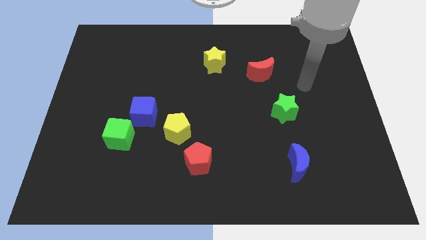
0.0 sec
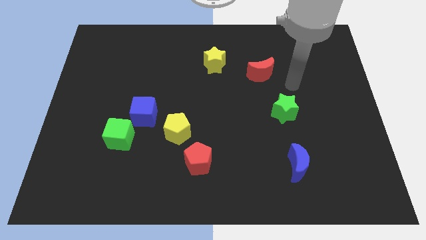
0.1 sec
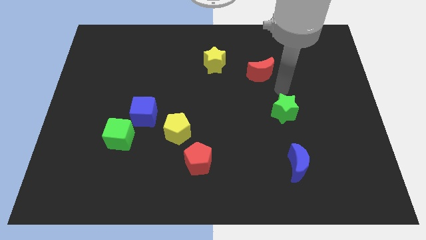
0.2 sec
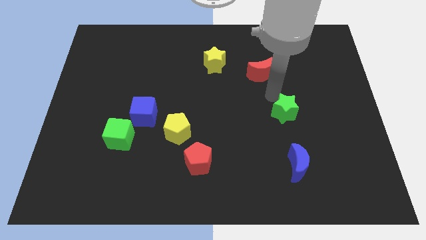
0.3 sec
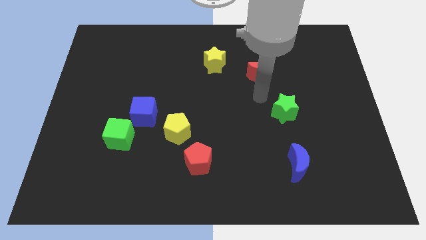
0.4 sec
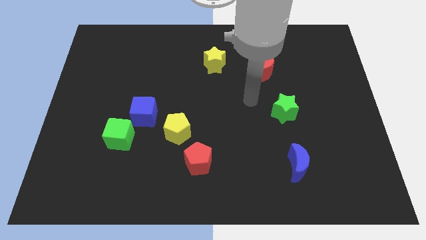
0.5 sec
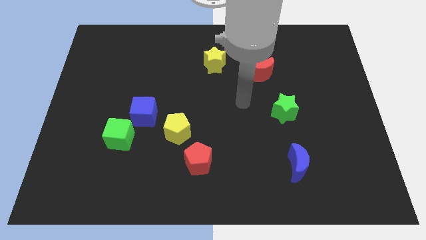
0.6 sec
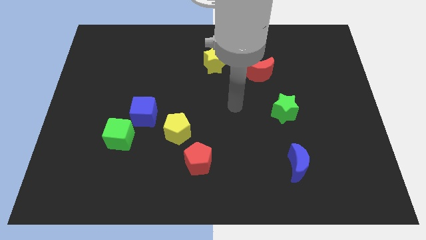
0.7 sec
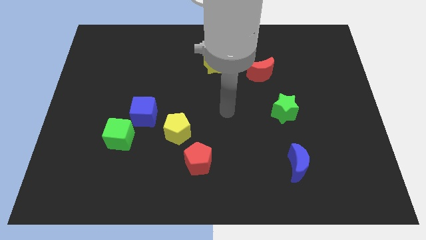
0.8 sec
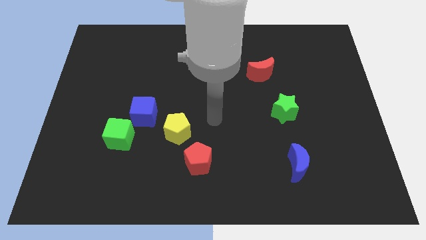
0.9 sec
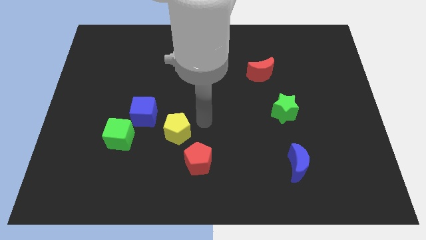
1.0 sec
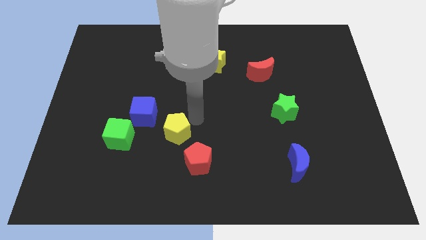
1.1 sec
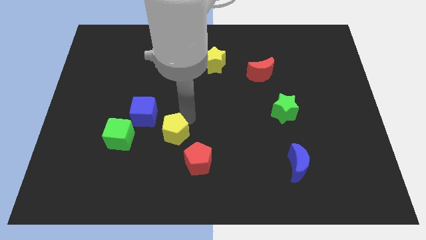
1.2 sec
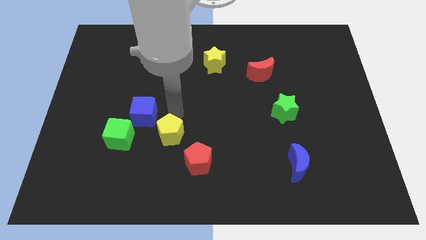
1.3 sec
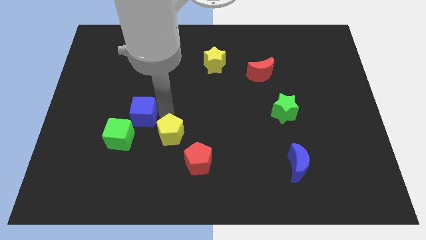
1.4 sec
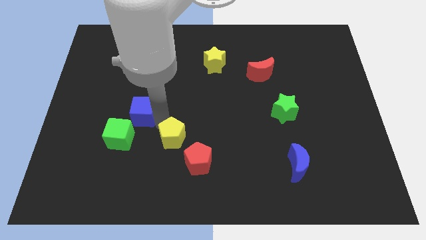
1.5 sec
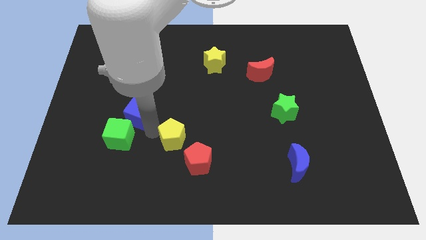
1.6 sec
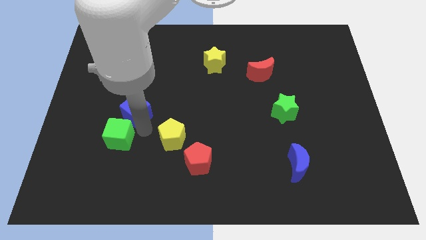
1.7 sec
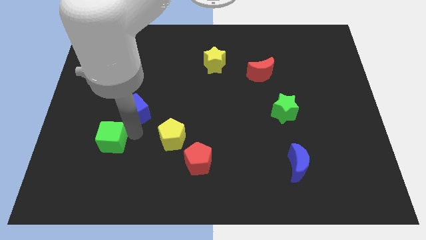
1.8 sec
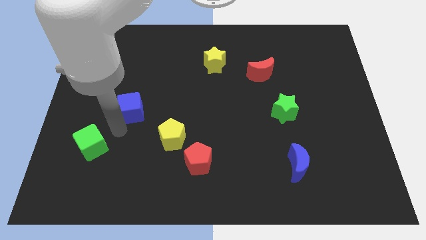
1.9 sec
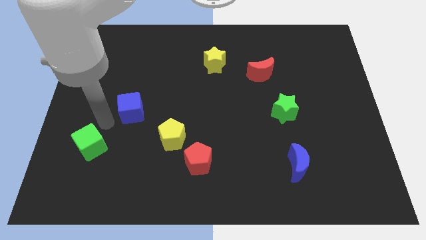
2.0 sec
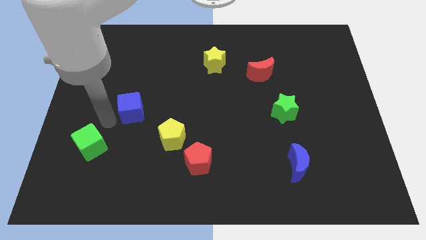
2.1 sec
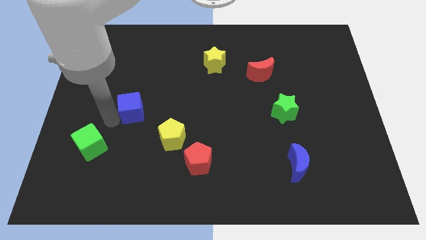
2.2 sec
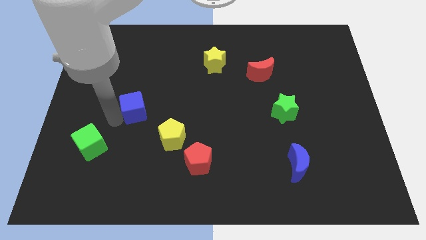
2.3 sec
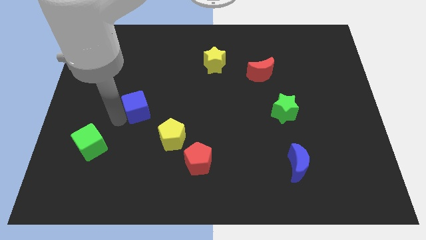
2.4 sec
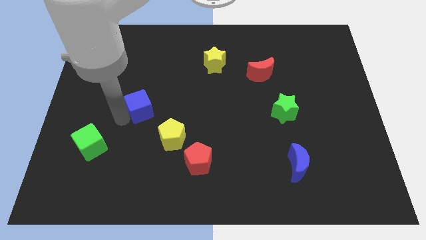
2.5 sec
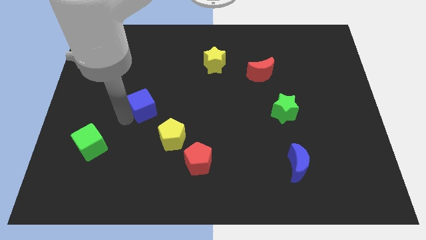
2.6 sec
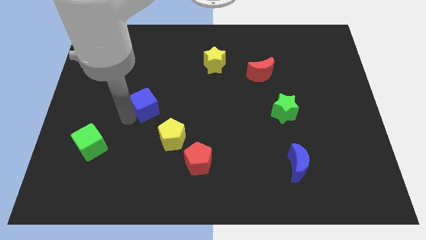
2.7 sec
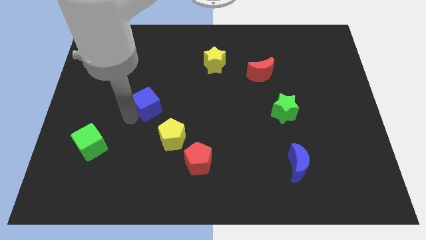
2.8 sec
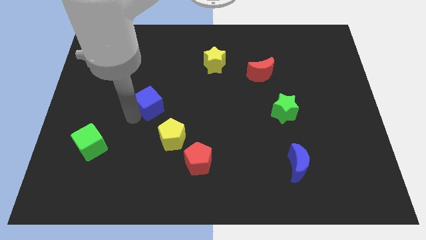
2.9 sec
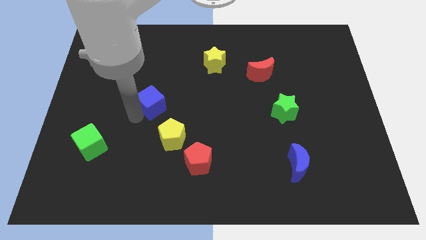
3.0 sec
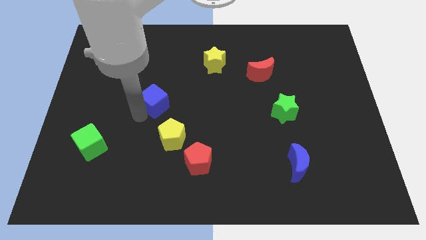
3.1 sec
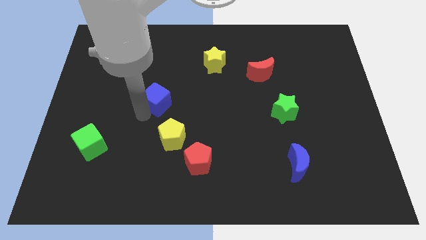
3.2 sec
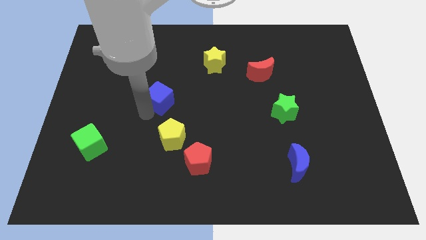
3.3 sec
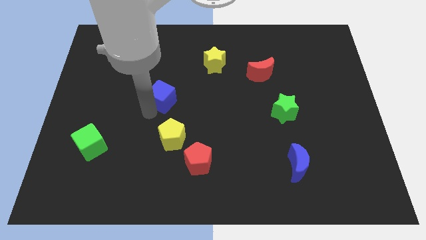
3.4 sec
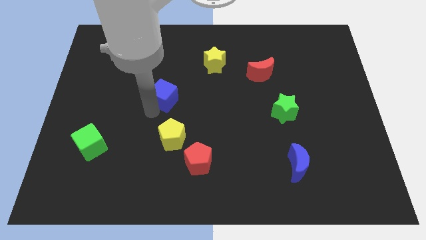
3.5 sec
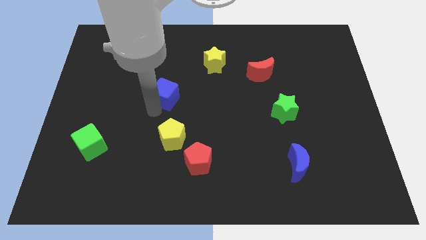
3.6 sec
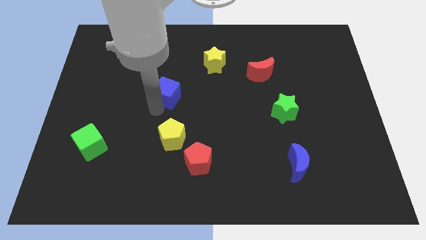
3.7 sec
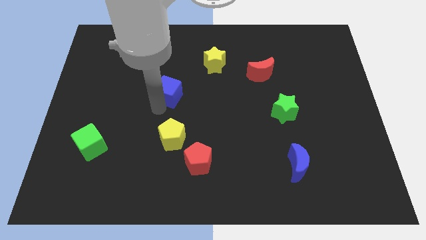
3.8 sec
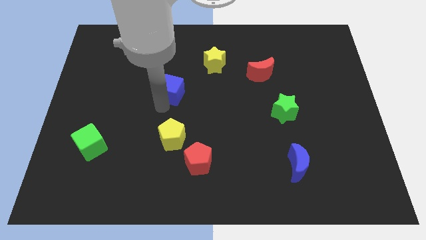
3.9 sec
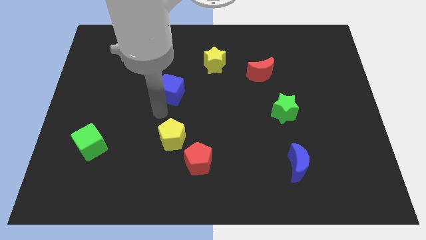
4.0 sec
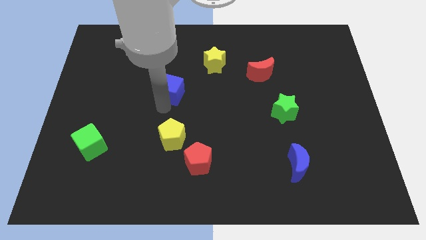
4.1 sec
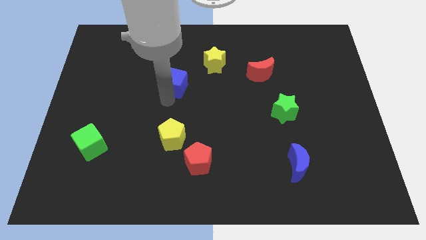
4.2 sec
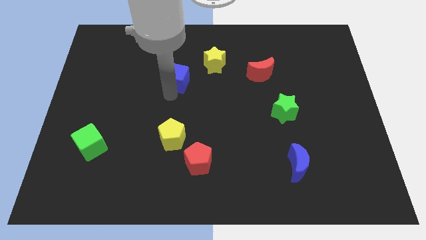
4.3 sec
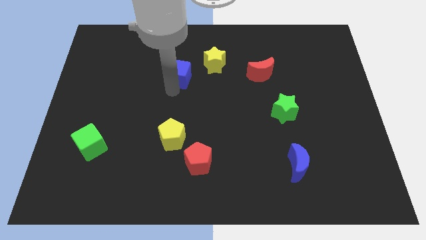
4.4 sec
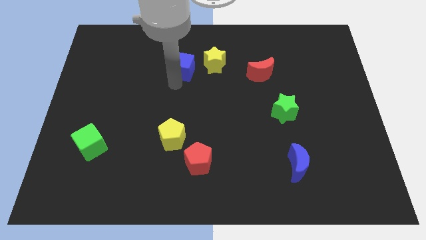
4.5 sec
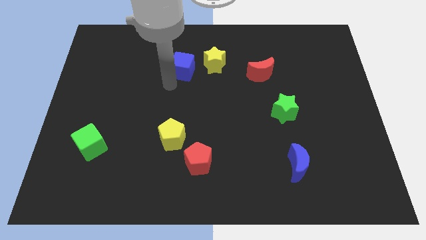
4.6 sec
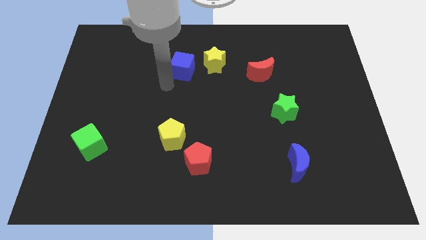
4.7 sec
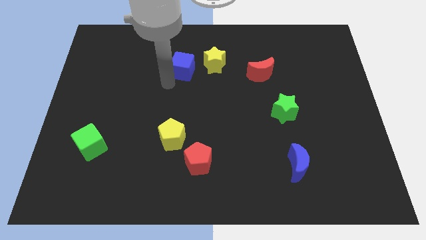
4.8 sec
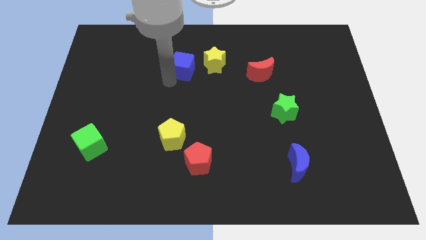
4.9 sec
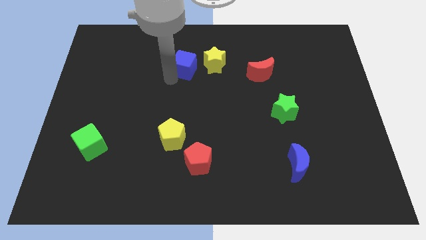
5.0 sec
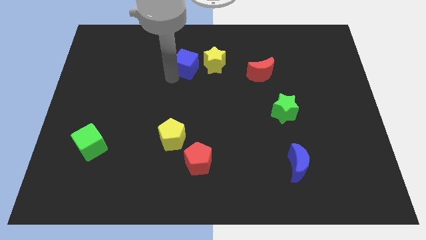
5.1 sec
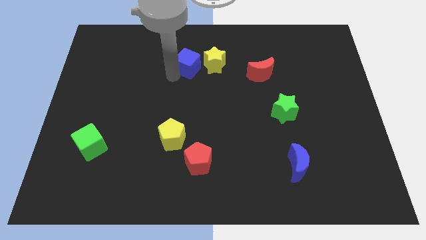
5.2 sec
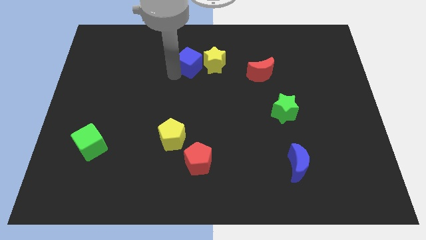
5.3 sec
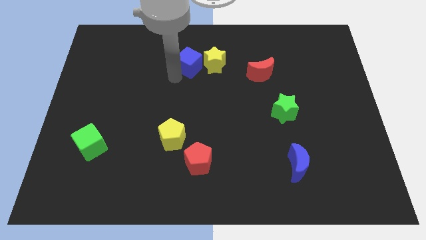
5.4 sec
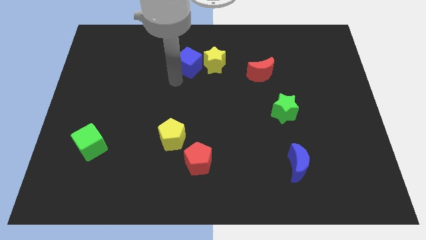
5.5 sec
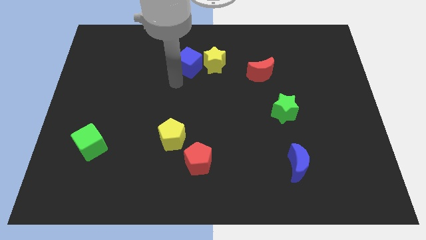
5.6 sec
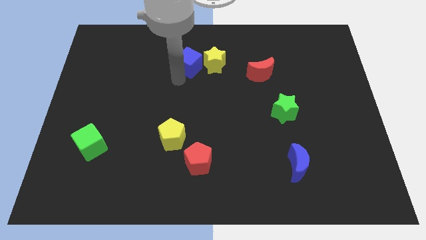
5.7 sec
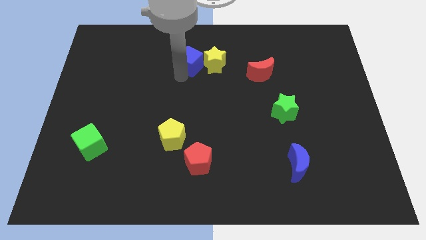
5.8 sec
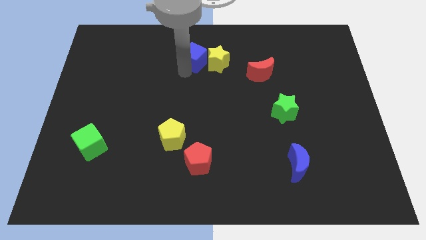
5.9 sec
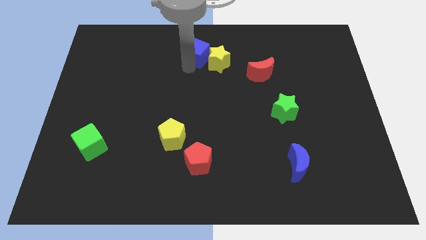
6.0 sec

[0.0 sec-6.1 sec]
slide the blue cube to the towards your base
